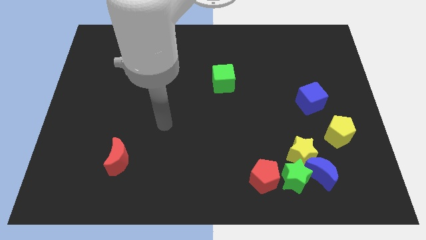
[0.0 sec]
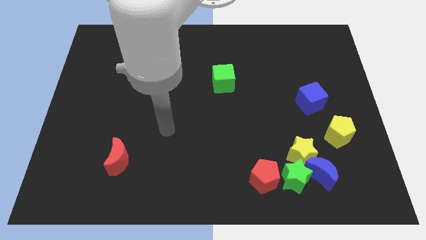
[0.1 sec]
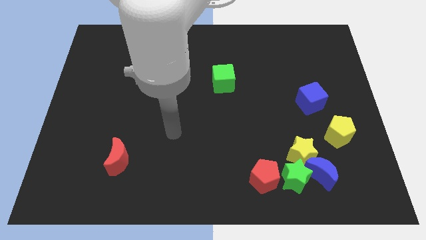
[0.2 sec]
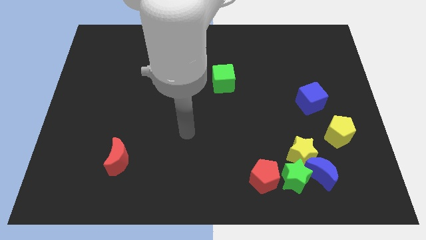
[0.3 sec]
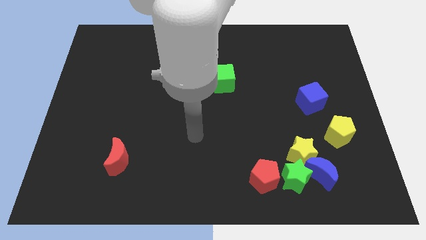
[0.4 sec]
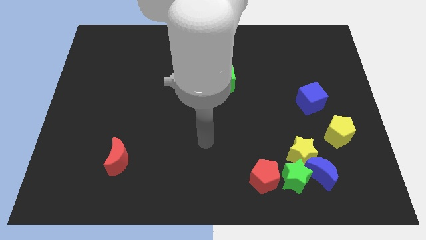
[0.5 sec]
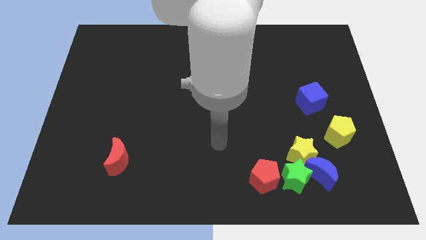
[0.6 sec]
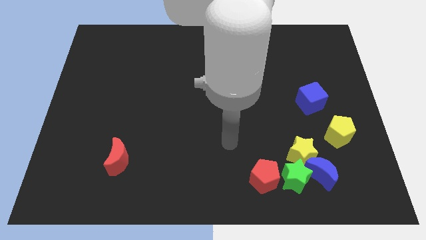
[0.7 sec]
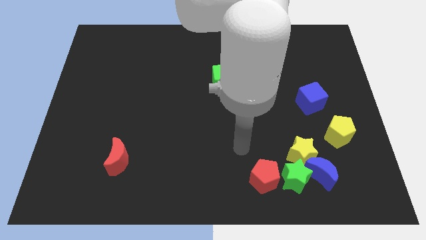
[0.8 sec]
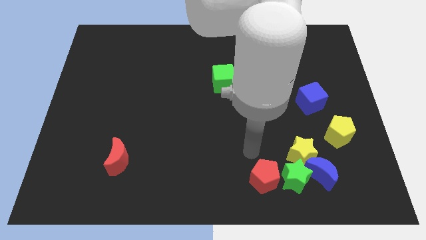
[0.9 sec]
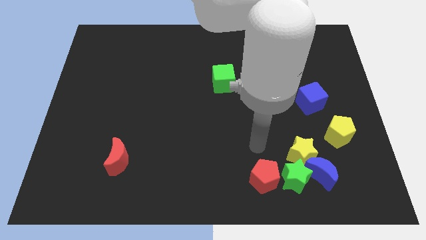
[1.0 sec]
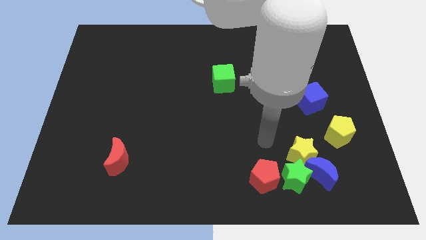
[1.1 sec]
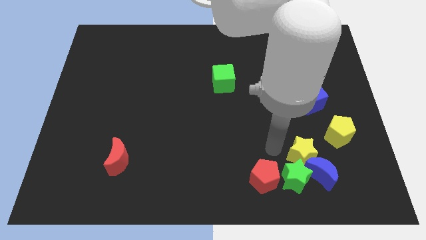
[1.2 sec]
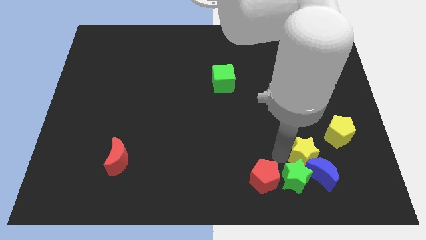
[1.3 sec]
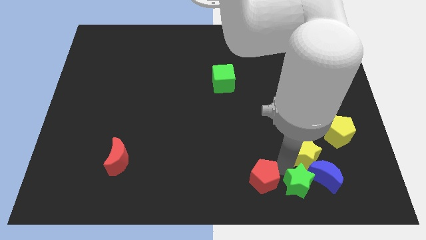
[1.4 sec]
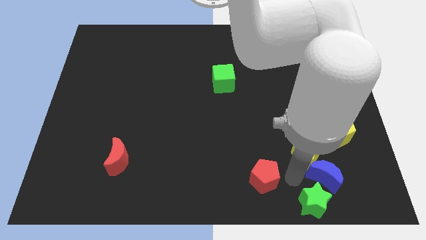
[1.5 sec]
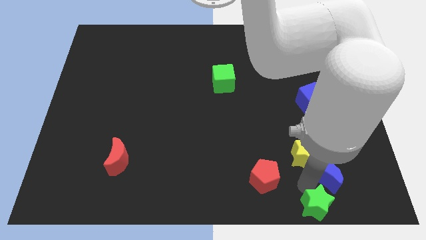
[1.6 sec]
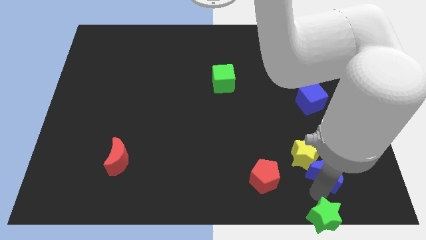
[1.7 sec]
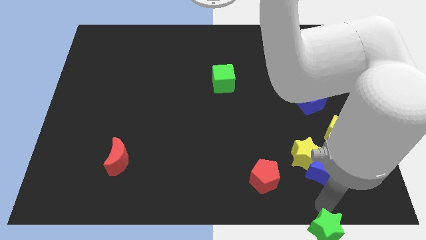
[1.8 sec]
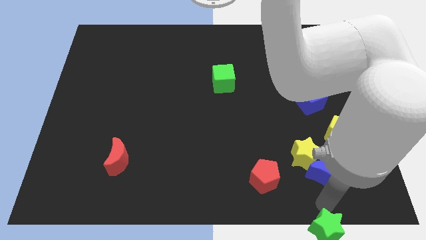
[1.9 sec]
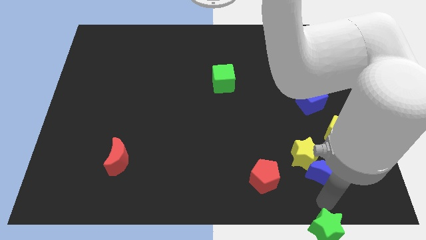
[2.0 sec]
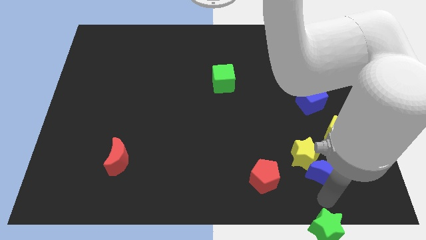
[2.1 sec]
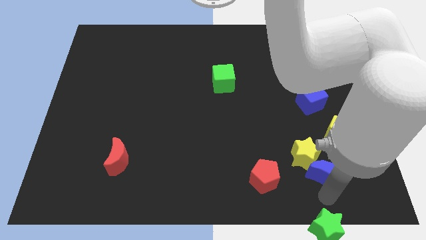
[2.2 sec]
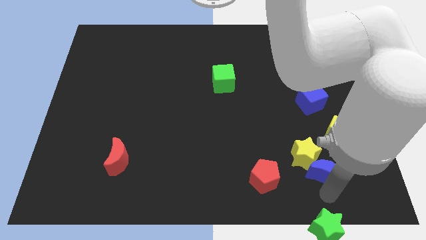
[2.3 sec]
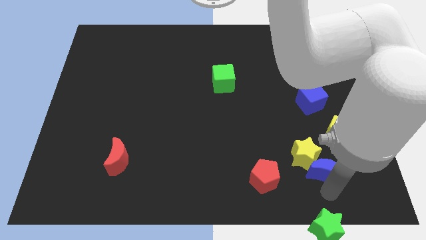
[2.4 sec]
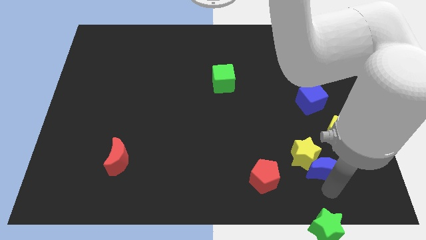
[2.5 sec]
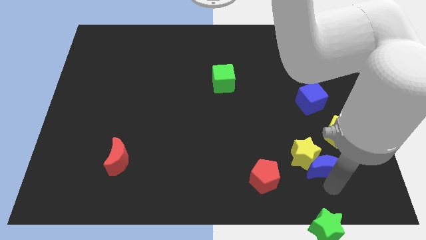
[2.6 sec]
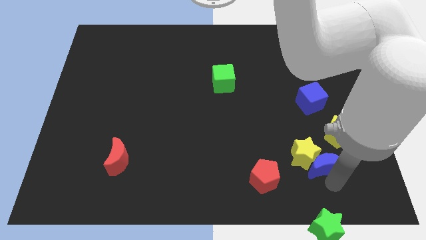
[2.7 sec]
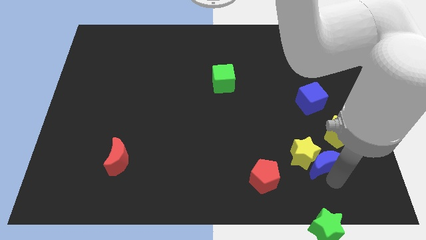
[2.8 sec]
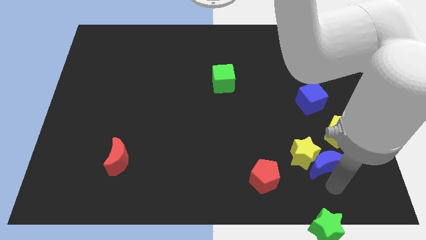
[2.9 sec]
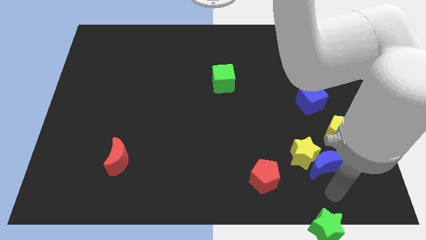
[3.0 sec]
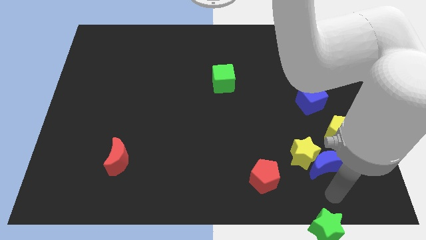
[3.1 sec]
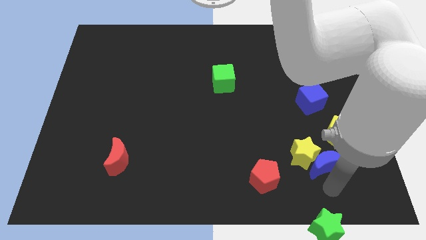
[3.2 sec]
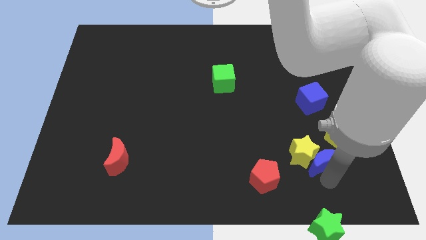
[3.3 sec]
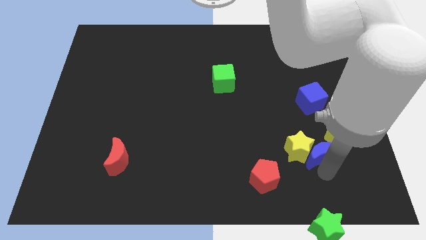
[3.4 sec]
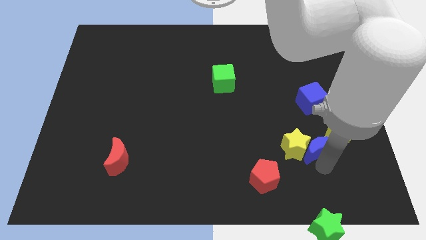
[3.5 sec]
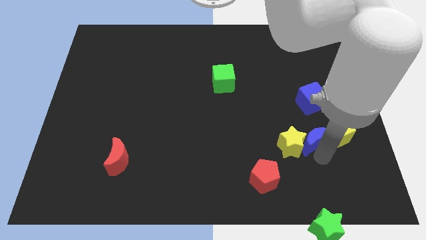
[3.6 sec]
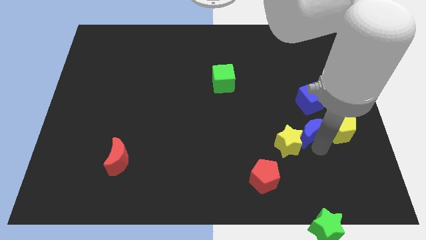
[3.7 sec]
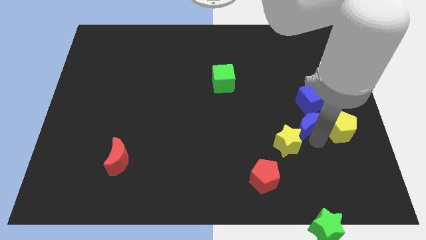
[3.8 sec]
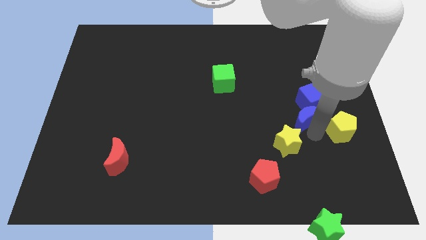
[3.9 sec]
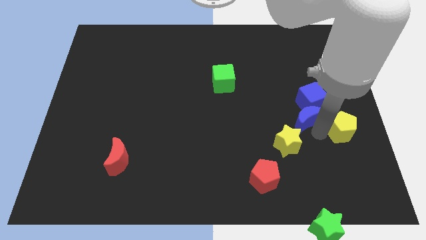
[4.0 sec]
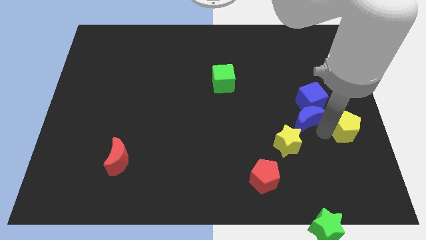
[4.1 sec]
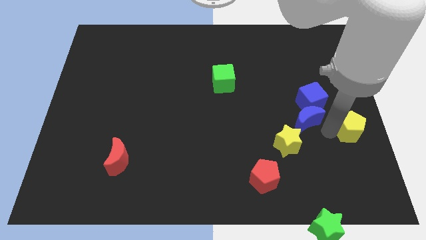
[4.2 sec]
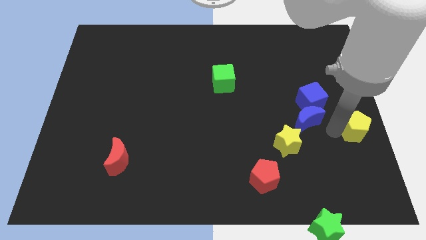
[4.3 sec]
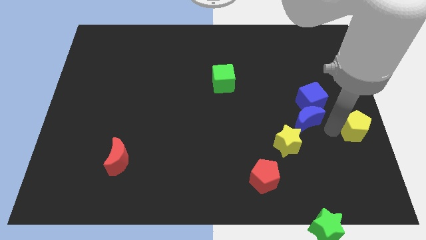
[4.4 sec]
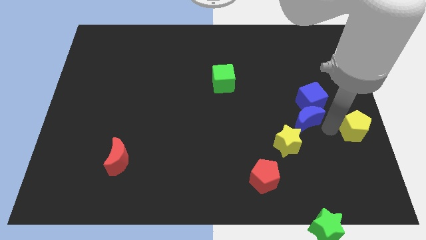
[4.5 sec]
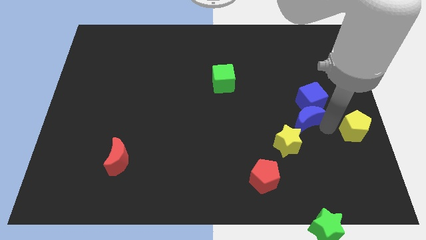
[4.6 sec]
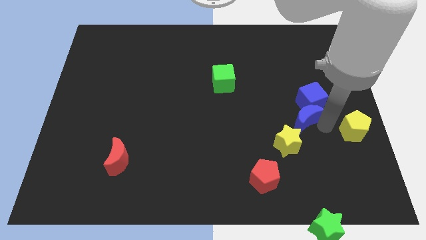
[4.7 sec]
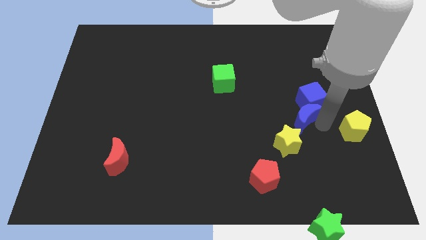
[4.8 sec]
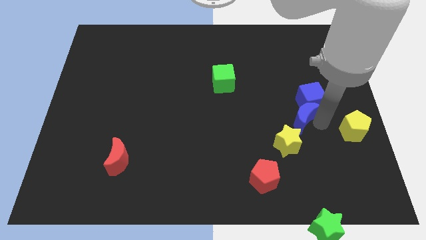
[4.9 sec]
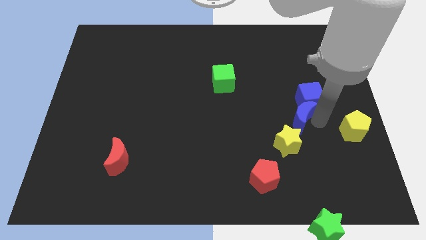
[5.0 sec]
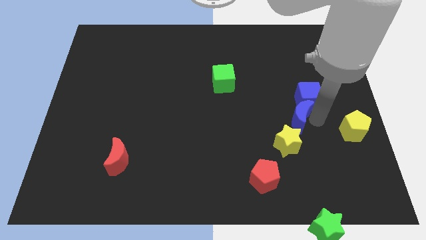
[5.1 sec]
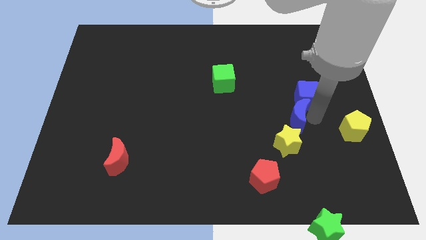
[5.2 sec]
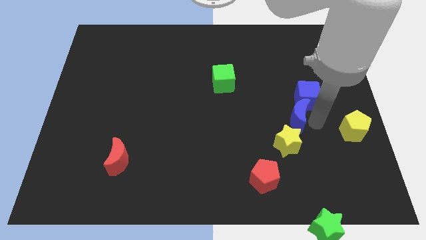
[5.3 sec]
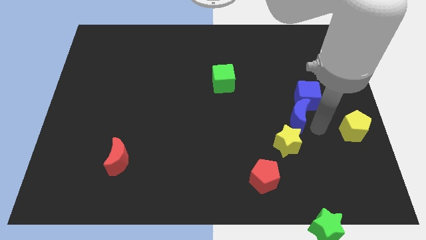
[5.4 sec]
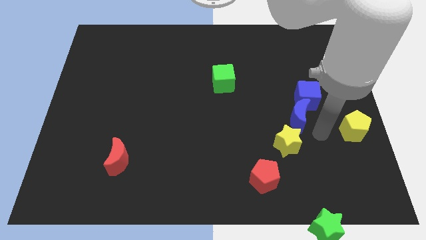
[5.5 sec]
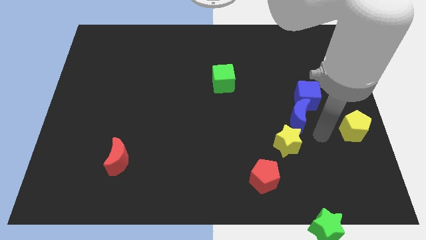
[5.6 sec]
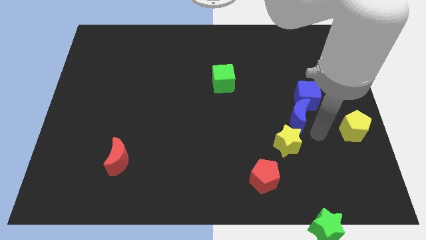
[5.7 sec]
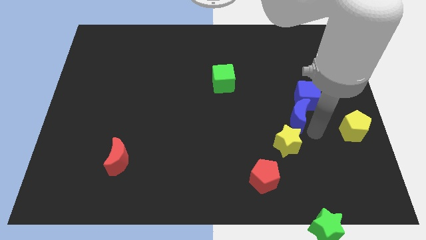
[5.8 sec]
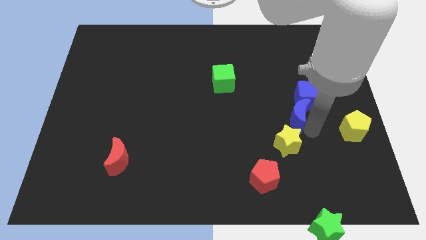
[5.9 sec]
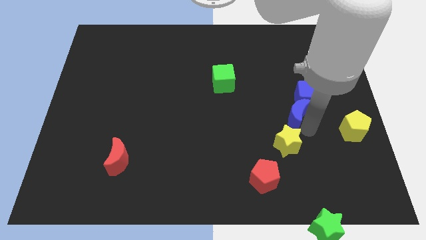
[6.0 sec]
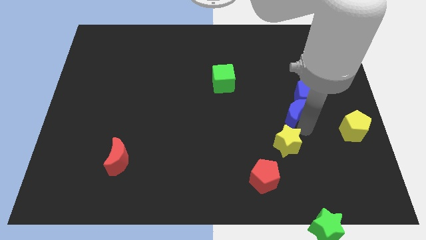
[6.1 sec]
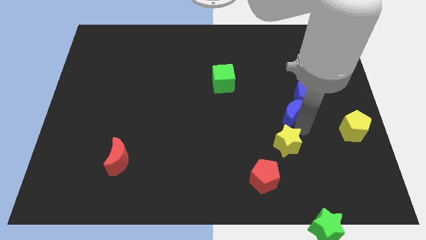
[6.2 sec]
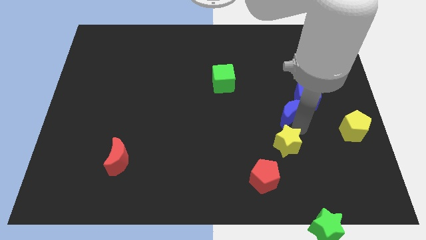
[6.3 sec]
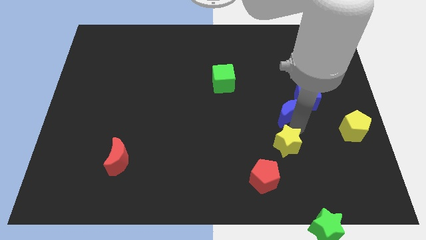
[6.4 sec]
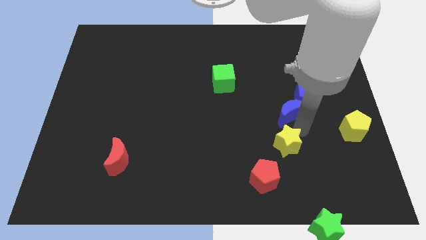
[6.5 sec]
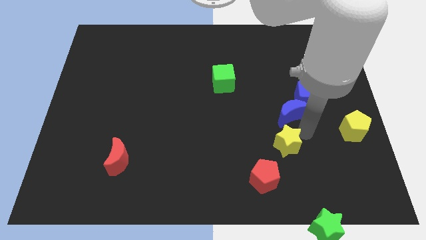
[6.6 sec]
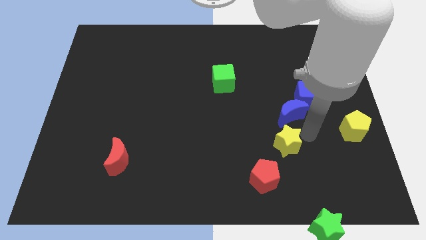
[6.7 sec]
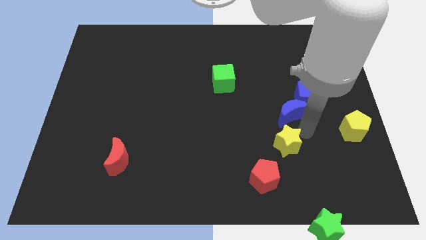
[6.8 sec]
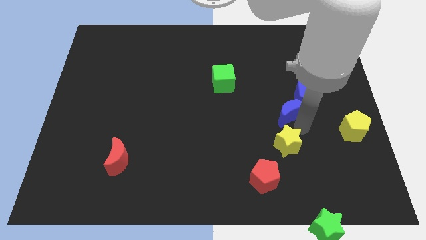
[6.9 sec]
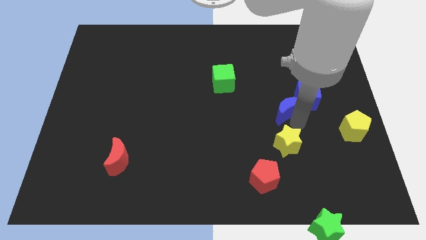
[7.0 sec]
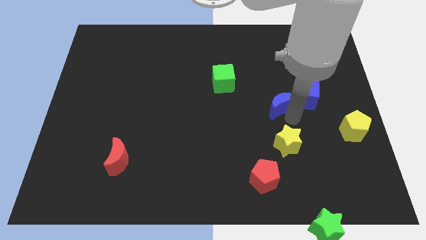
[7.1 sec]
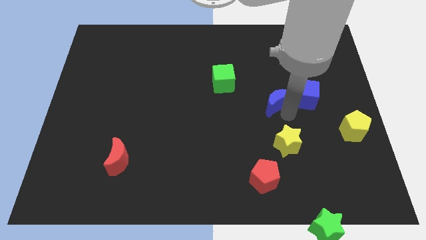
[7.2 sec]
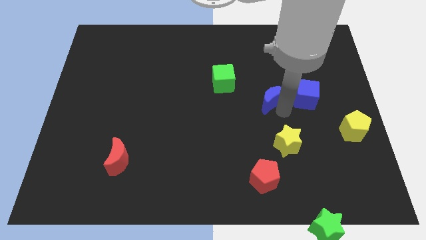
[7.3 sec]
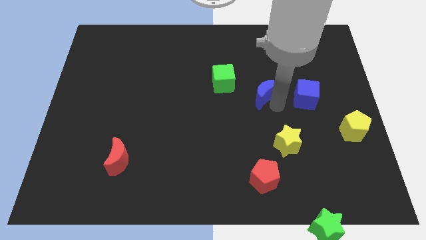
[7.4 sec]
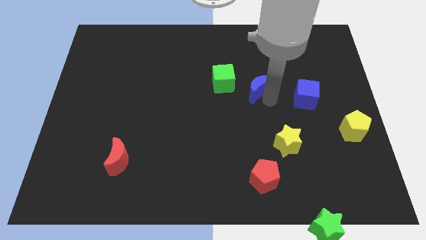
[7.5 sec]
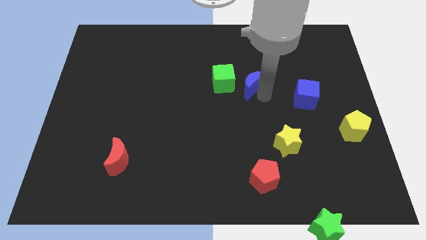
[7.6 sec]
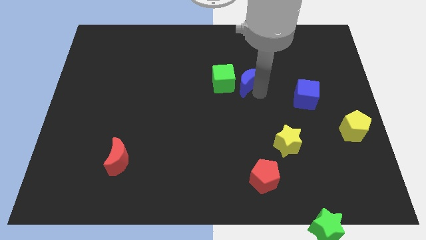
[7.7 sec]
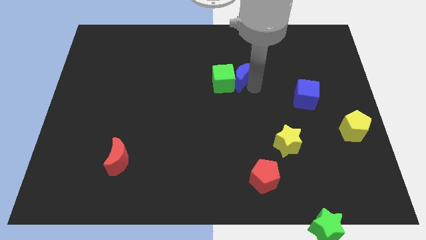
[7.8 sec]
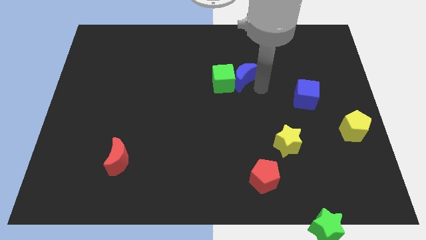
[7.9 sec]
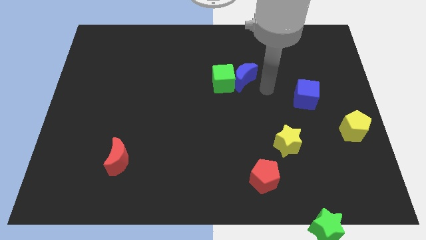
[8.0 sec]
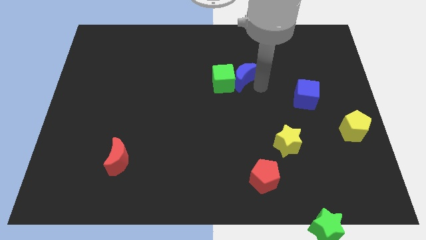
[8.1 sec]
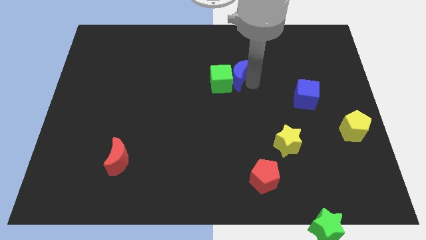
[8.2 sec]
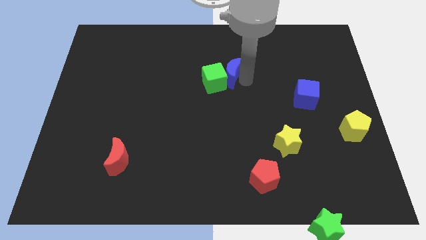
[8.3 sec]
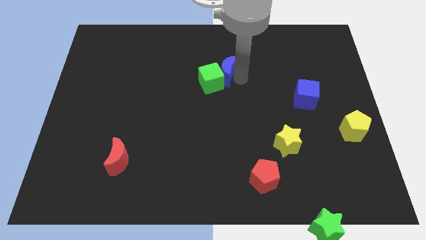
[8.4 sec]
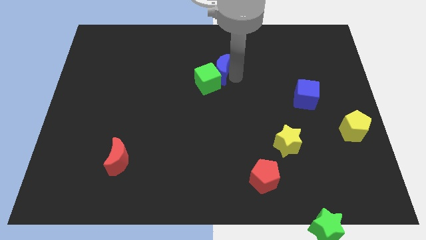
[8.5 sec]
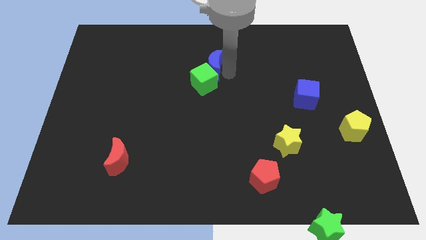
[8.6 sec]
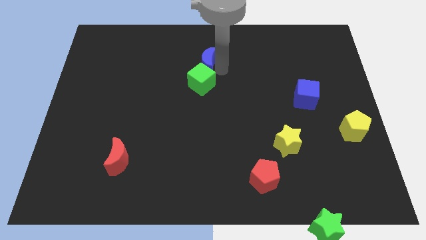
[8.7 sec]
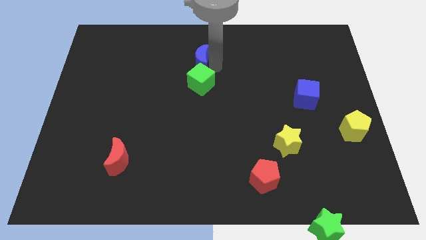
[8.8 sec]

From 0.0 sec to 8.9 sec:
push the blue moon to the top left side of the green cube
